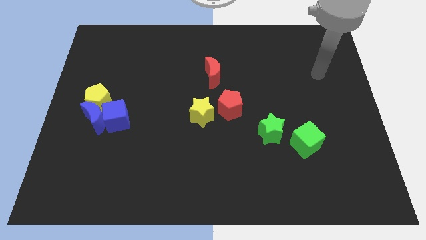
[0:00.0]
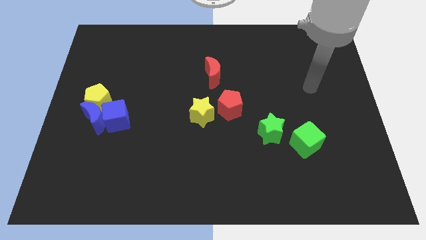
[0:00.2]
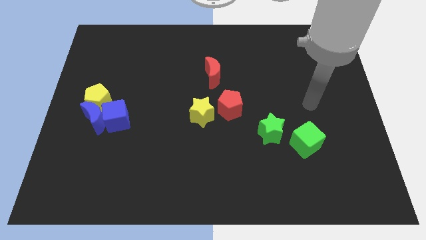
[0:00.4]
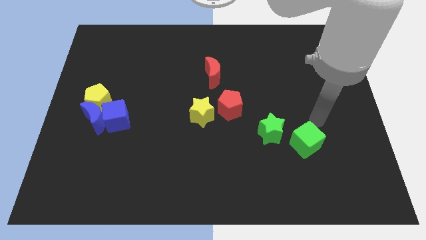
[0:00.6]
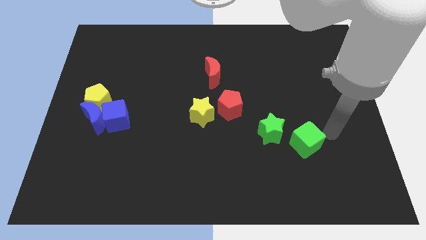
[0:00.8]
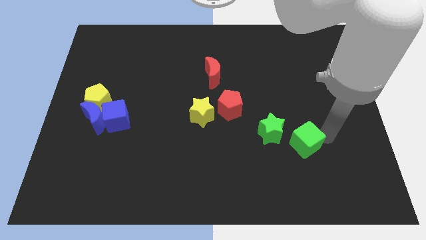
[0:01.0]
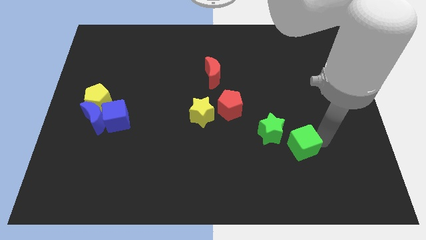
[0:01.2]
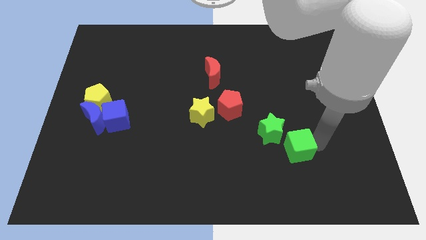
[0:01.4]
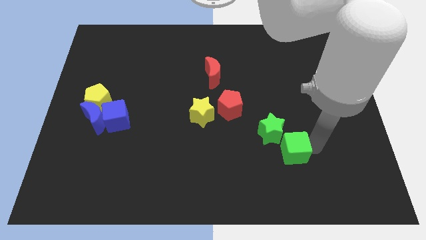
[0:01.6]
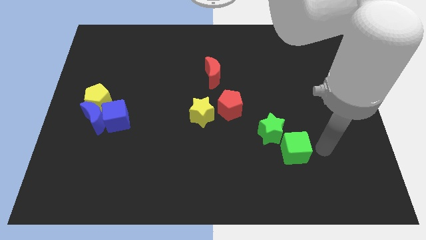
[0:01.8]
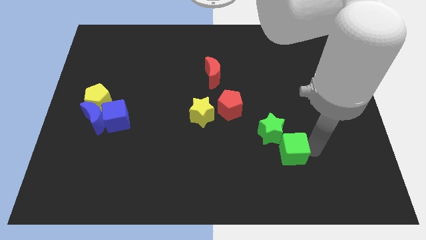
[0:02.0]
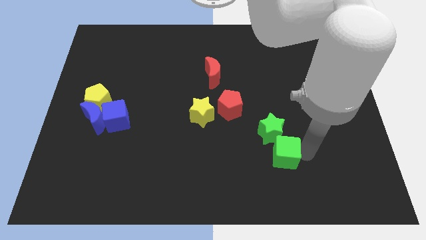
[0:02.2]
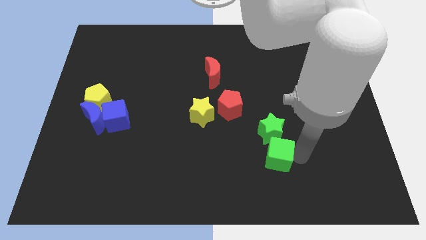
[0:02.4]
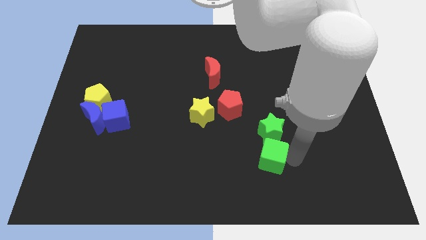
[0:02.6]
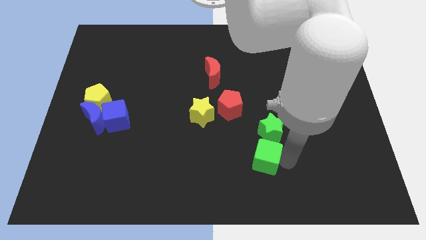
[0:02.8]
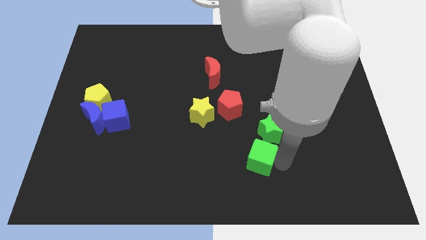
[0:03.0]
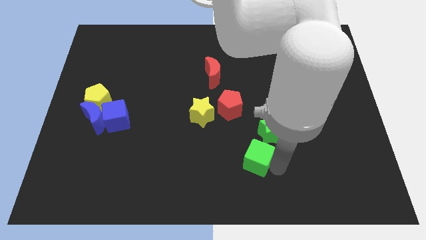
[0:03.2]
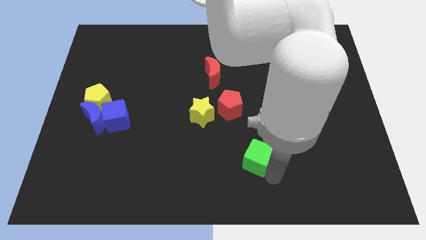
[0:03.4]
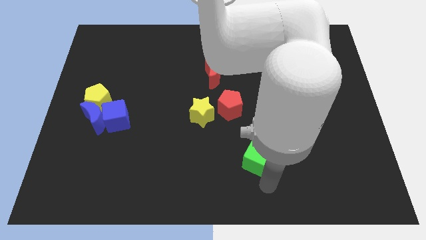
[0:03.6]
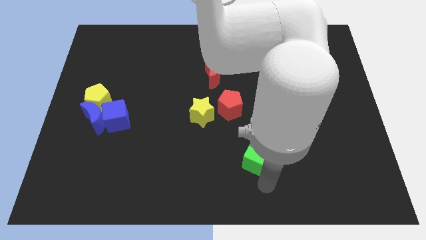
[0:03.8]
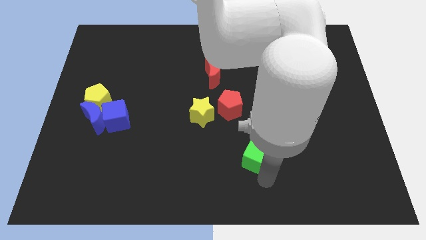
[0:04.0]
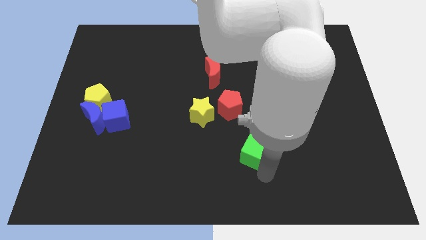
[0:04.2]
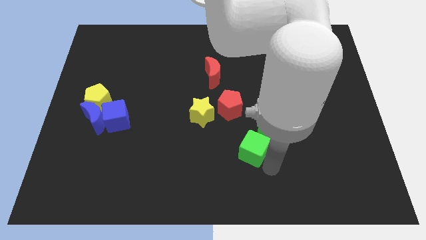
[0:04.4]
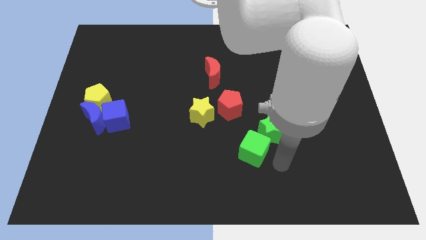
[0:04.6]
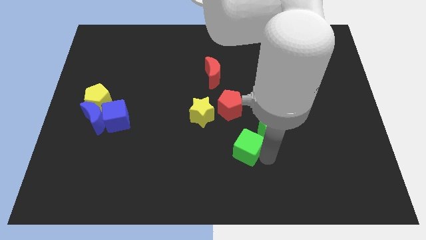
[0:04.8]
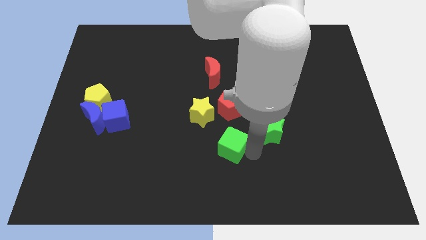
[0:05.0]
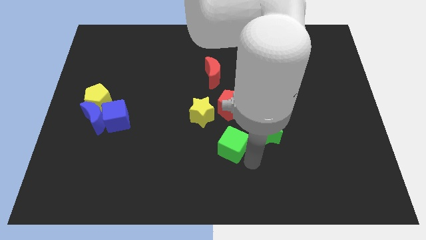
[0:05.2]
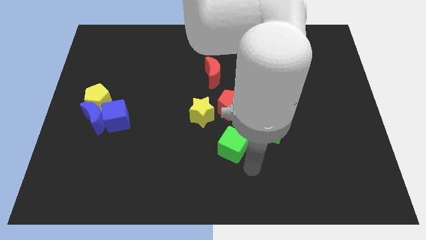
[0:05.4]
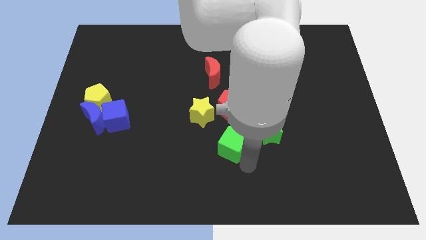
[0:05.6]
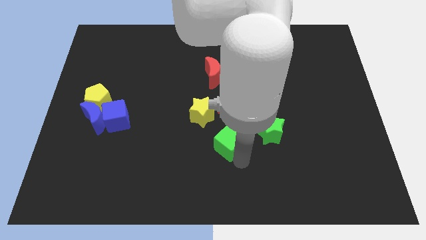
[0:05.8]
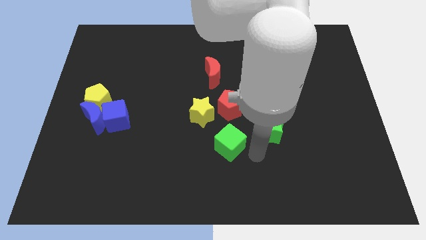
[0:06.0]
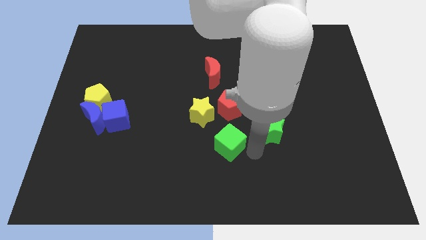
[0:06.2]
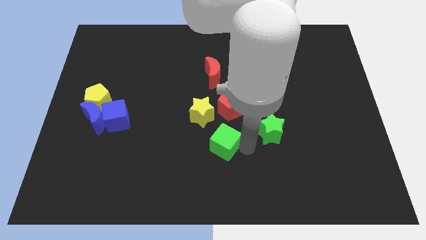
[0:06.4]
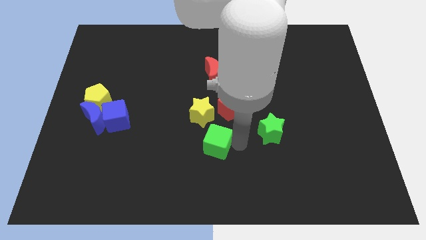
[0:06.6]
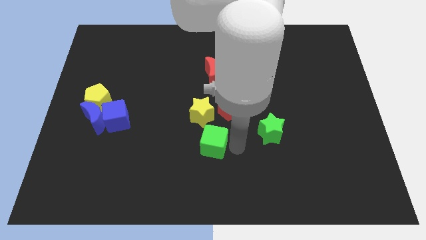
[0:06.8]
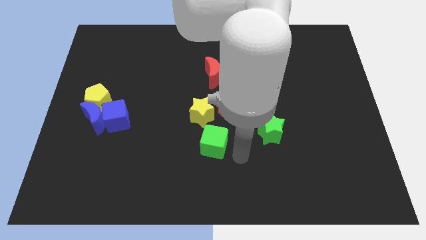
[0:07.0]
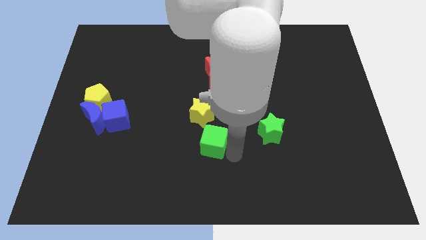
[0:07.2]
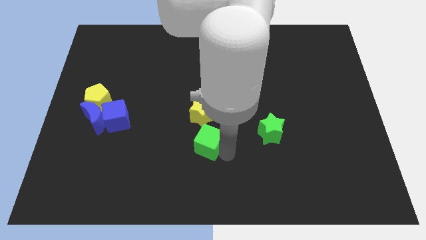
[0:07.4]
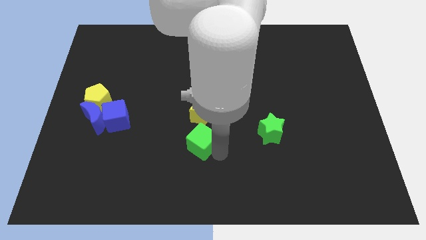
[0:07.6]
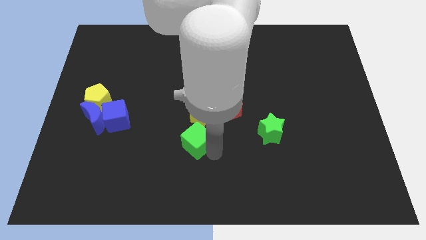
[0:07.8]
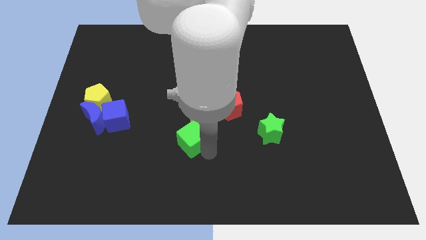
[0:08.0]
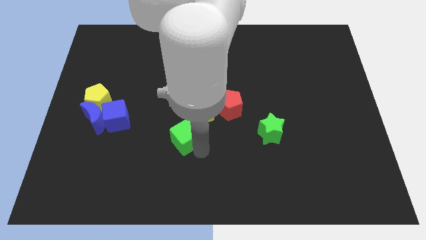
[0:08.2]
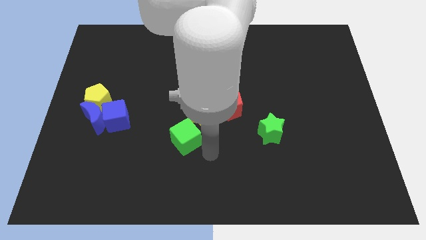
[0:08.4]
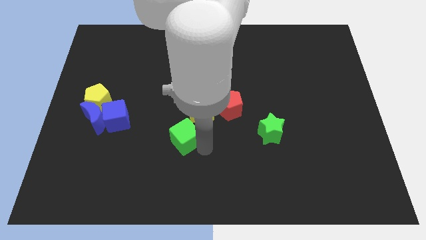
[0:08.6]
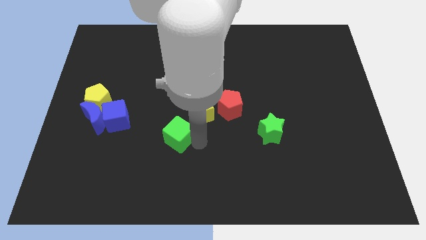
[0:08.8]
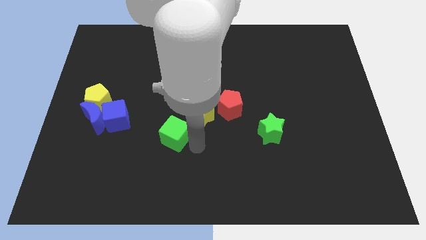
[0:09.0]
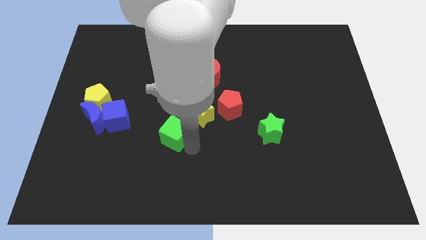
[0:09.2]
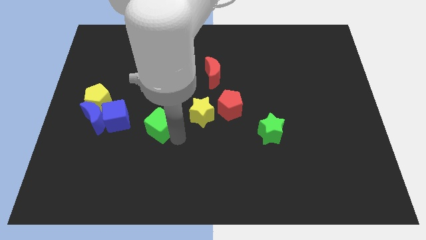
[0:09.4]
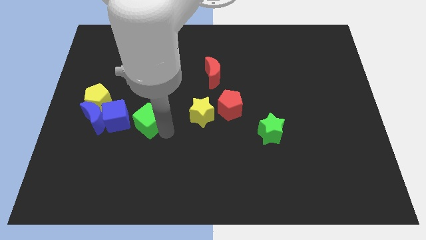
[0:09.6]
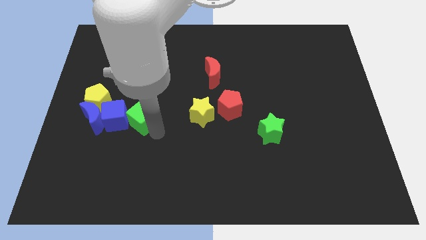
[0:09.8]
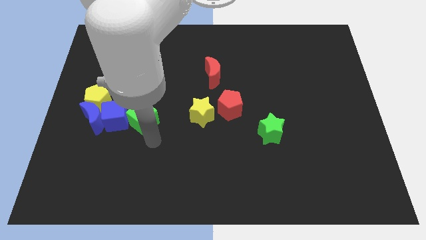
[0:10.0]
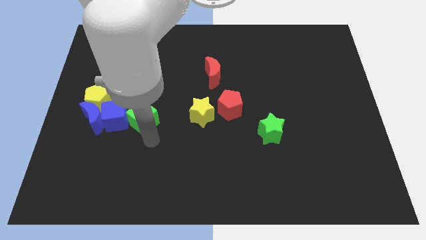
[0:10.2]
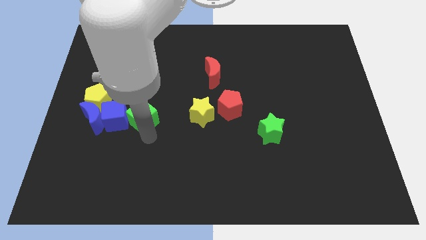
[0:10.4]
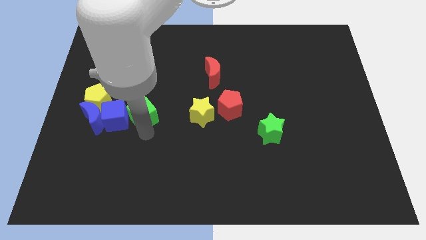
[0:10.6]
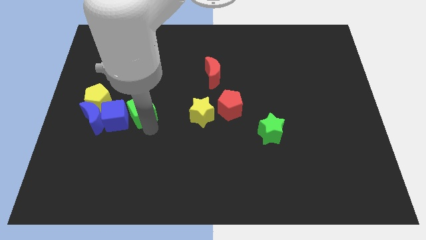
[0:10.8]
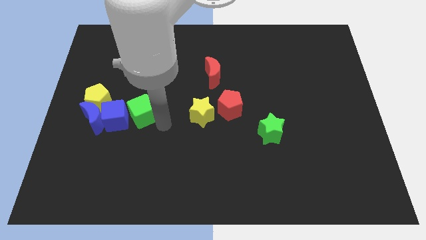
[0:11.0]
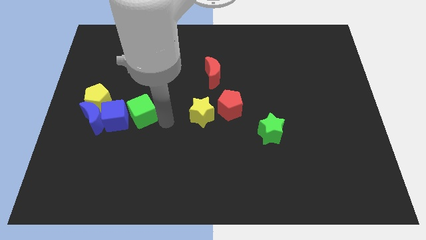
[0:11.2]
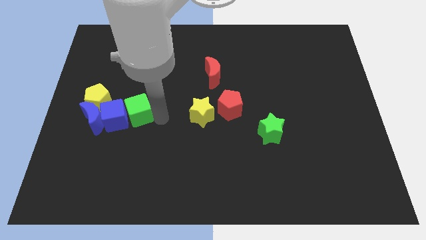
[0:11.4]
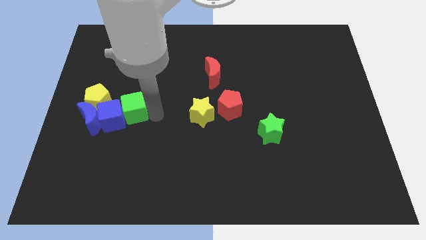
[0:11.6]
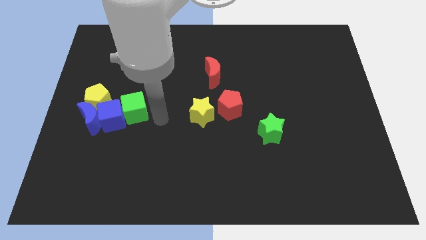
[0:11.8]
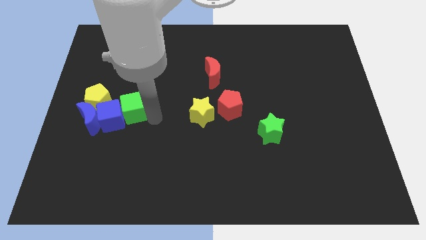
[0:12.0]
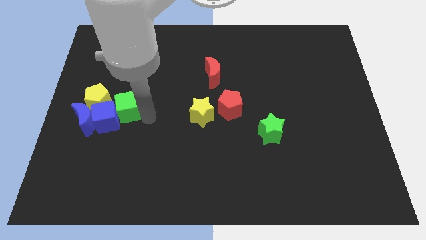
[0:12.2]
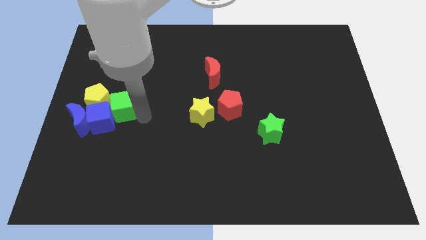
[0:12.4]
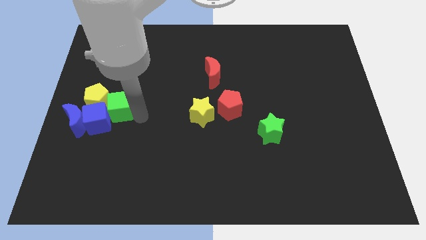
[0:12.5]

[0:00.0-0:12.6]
put the green cube towards the yellow pentagon
